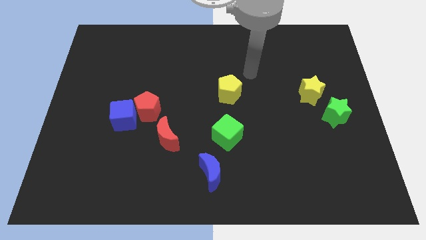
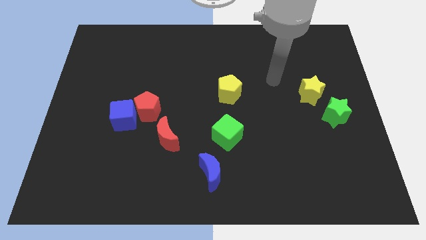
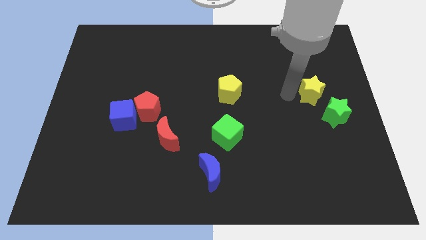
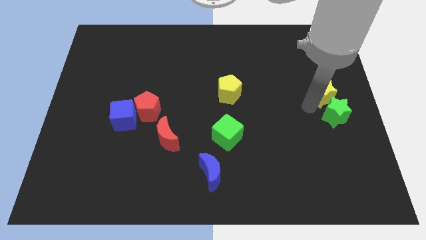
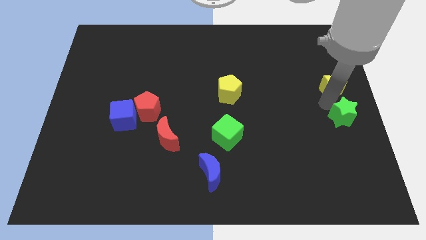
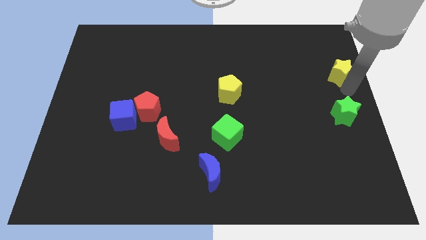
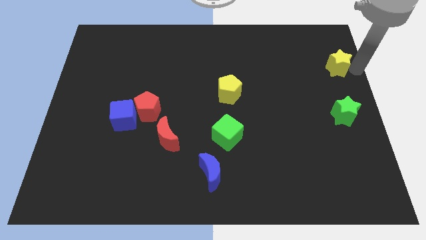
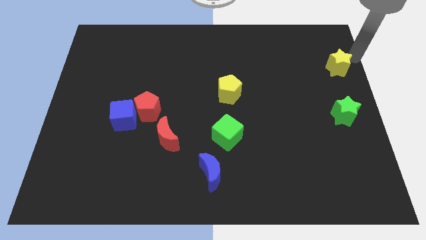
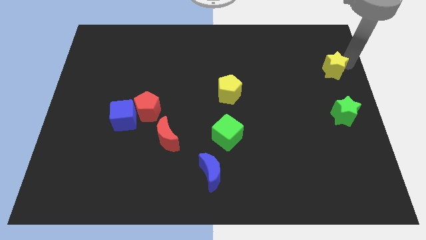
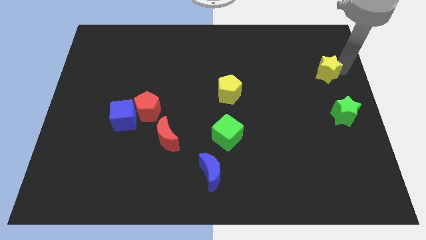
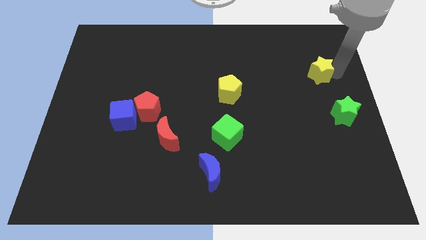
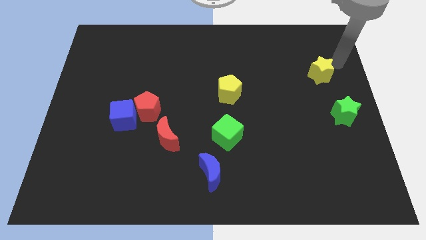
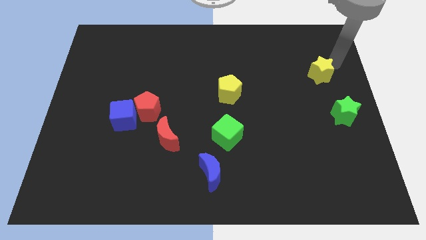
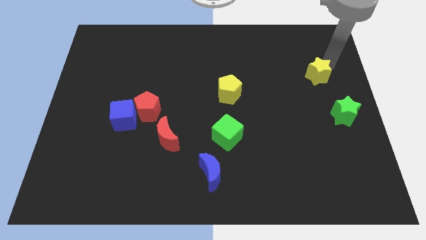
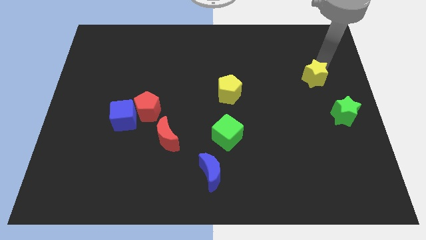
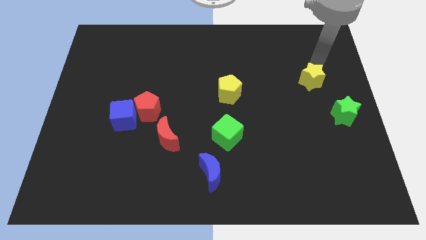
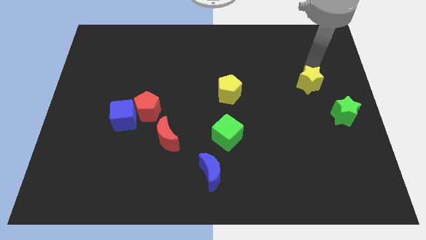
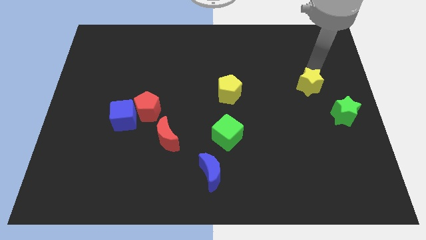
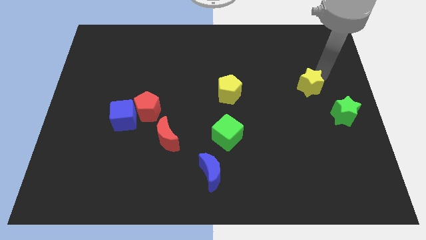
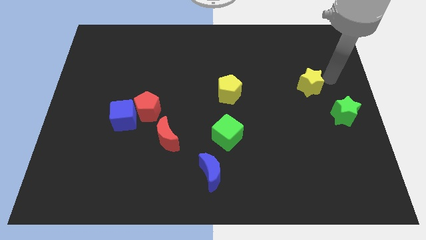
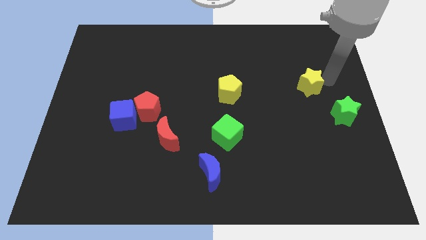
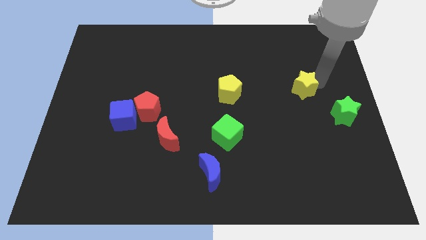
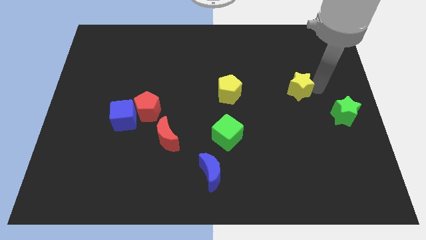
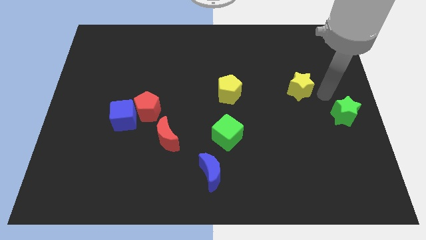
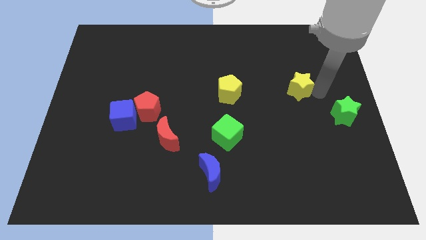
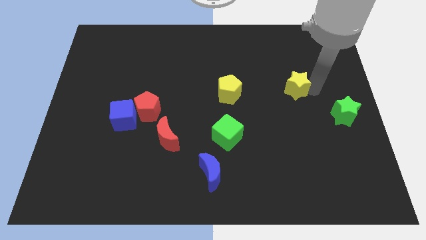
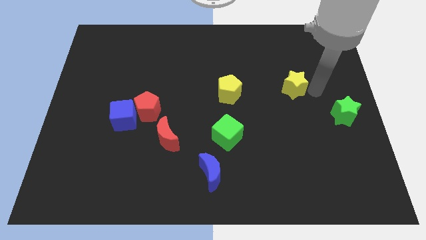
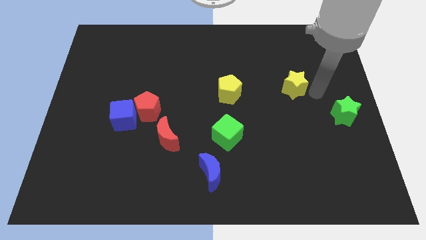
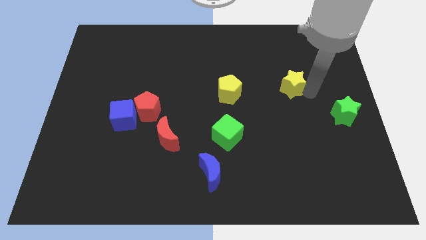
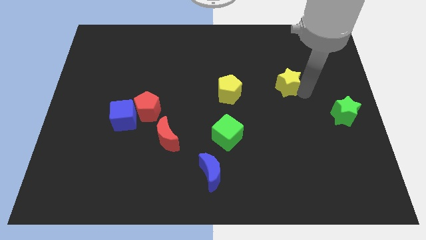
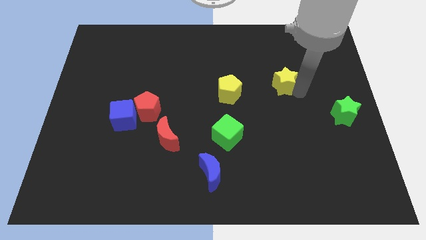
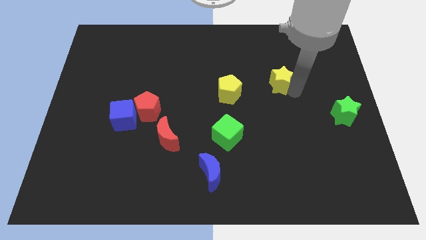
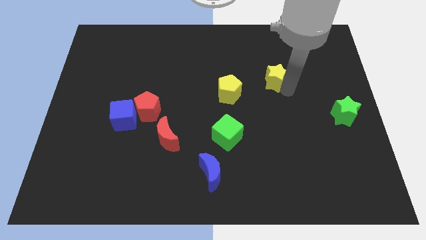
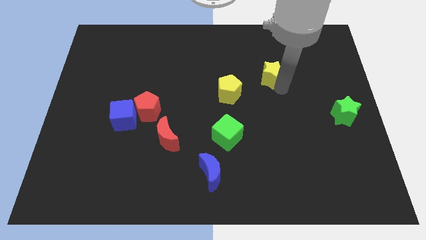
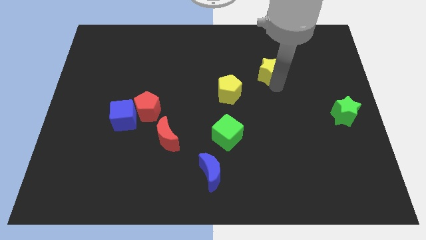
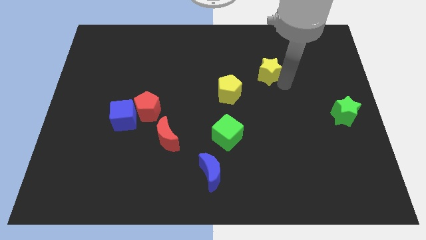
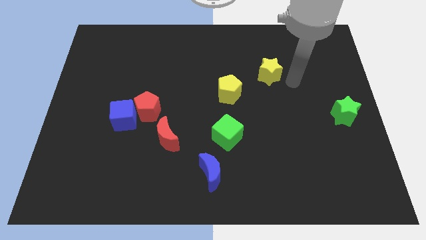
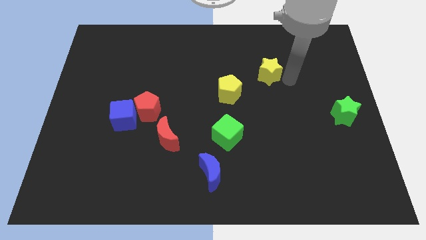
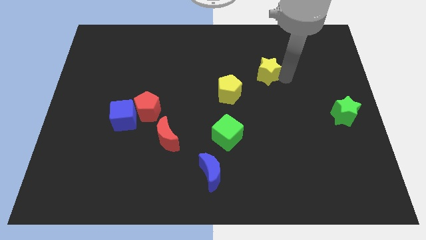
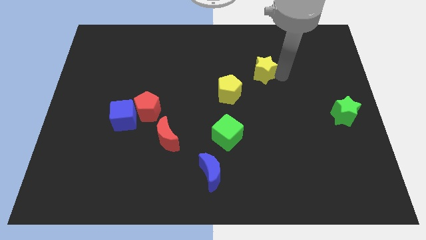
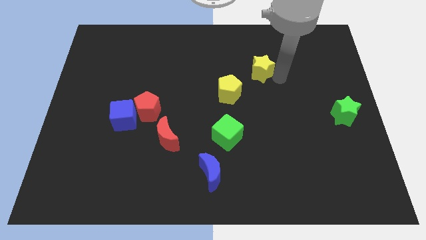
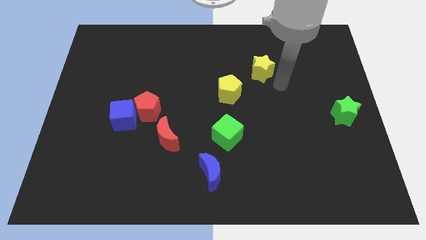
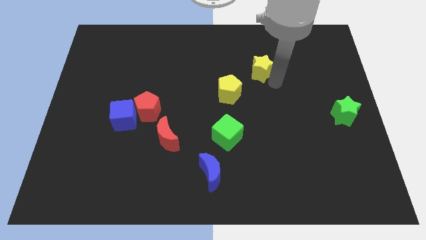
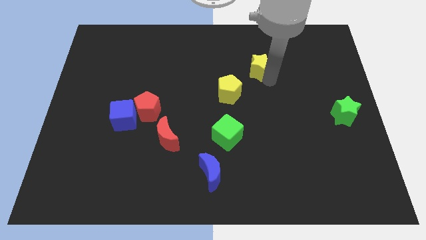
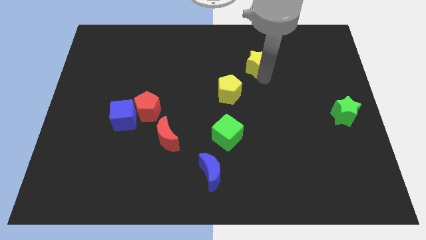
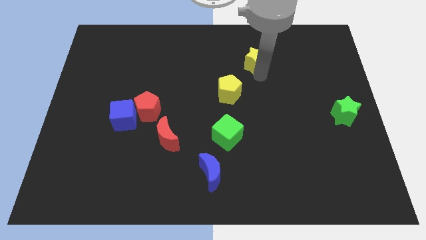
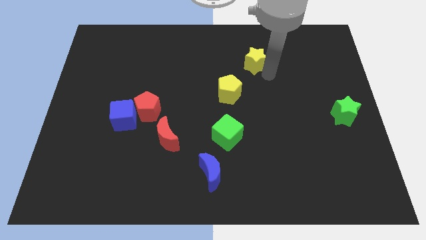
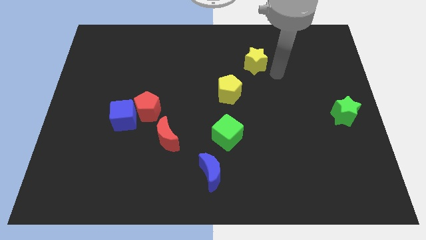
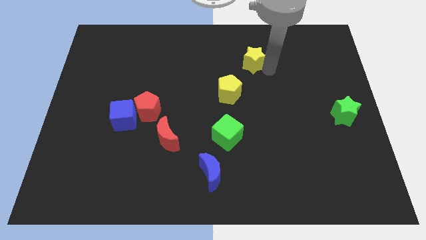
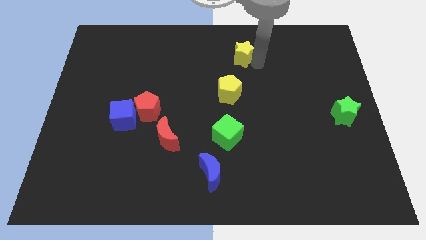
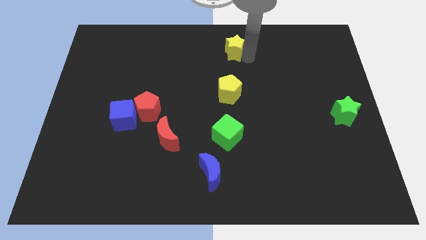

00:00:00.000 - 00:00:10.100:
push the yellow star to the top

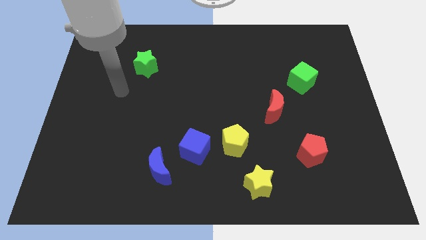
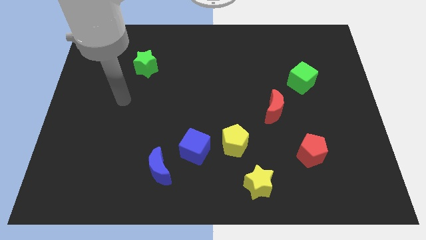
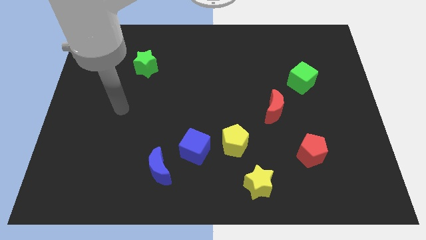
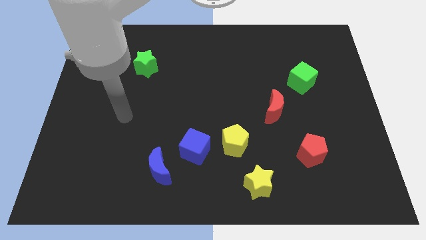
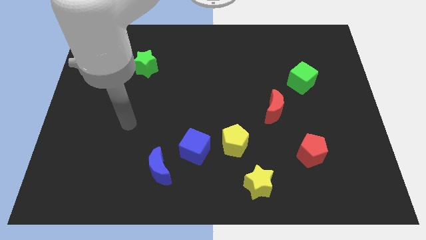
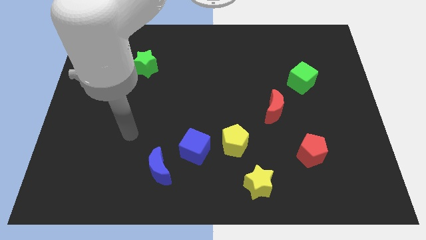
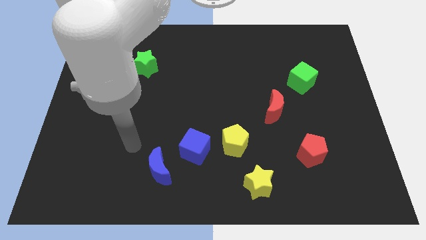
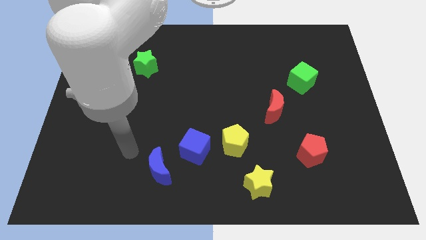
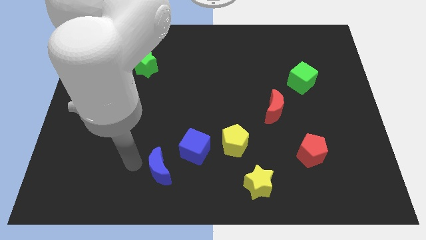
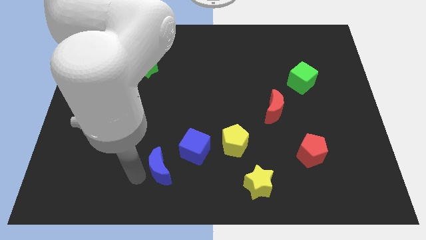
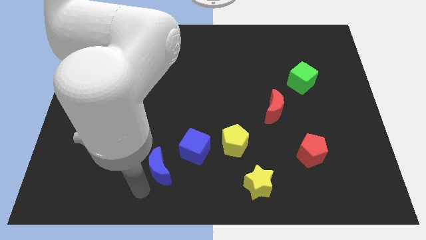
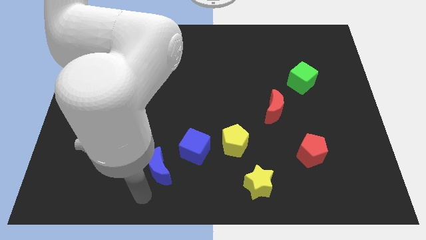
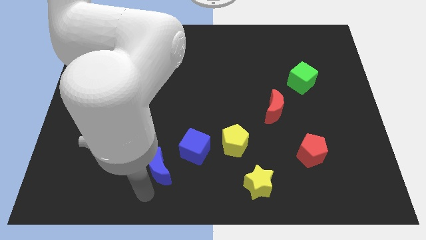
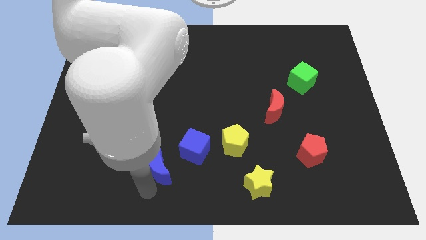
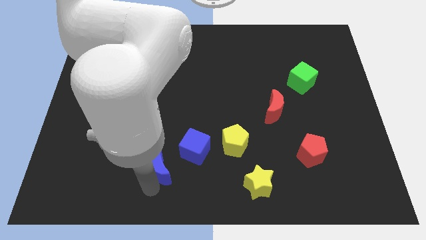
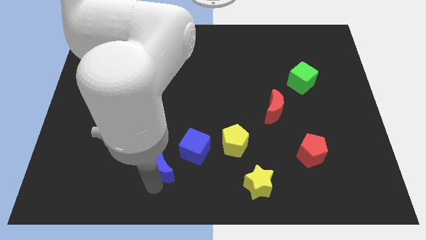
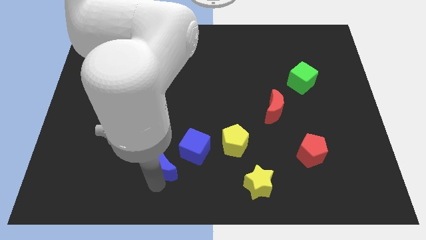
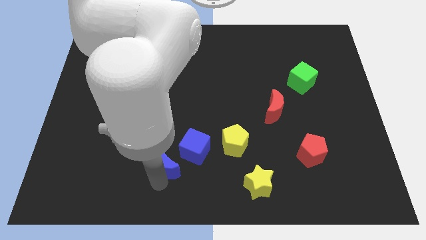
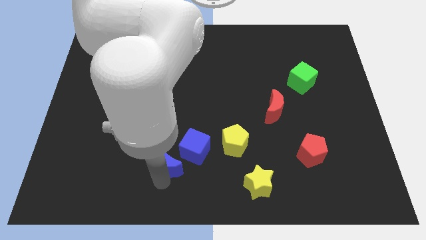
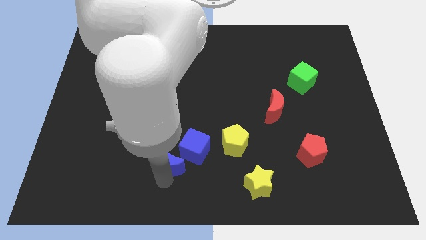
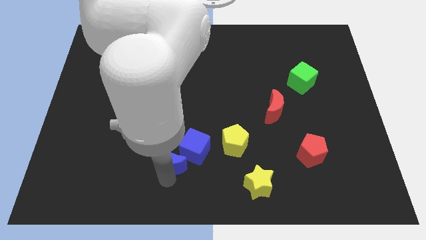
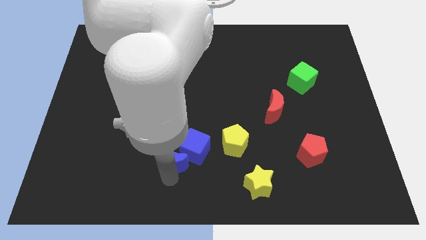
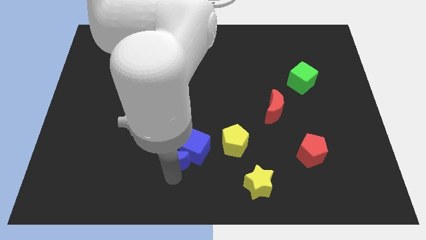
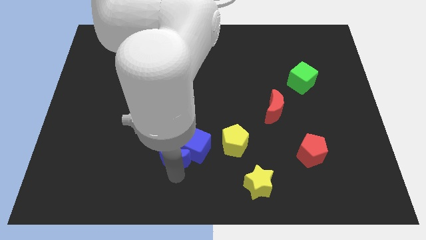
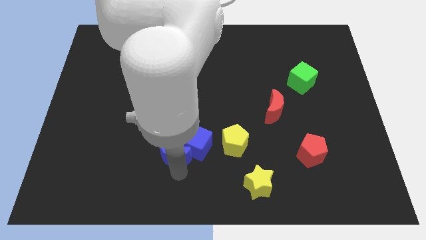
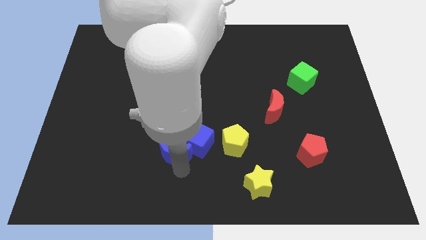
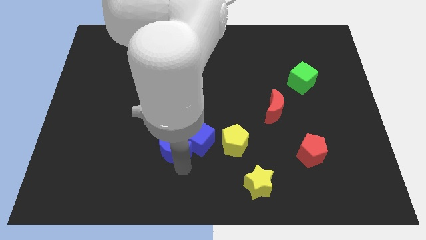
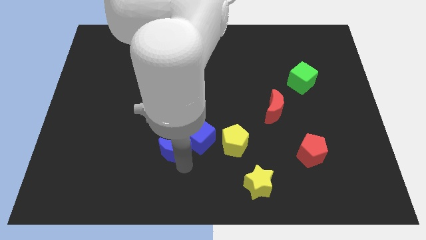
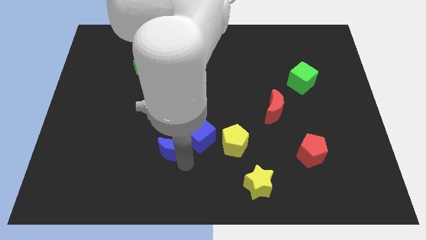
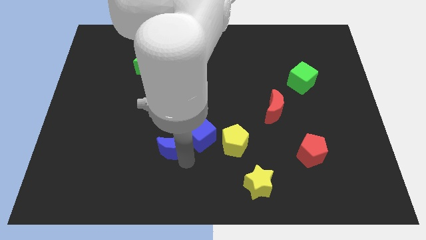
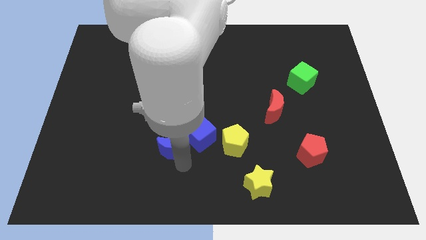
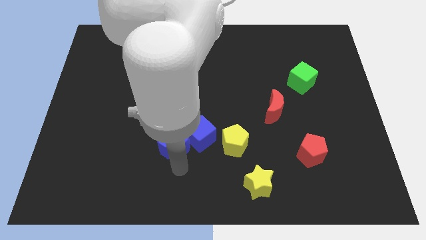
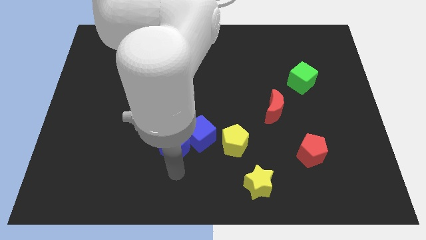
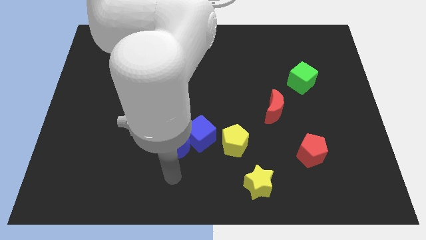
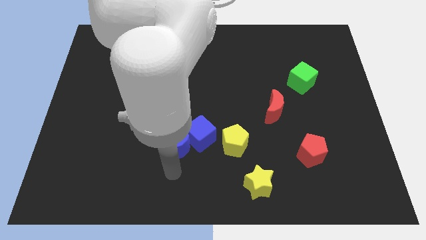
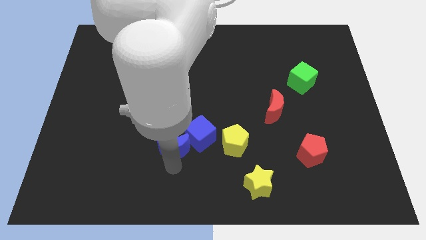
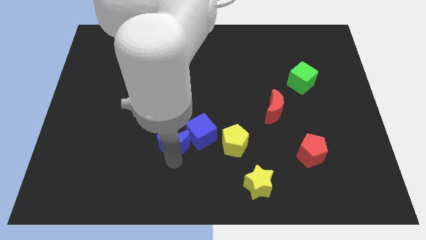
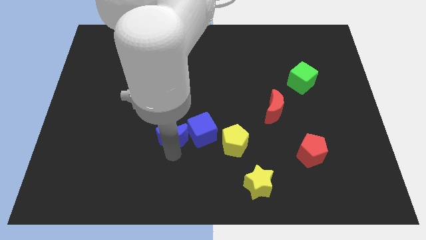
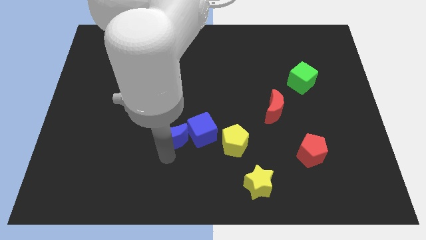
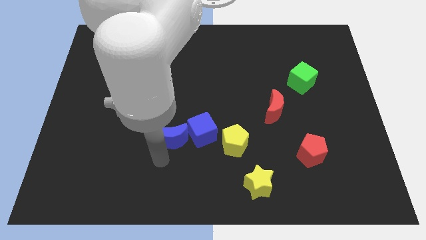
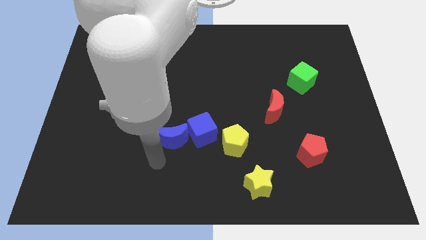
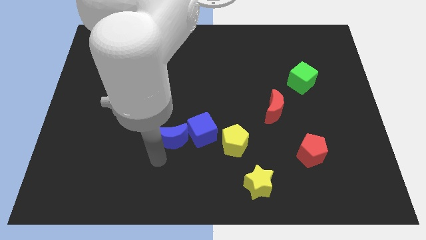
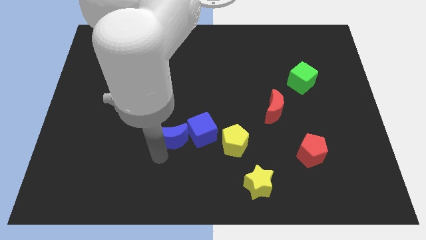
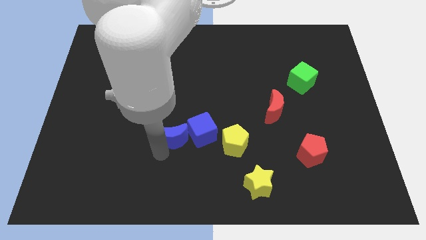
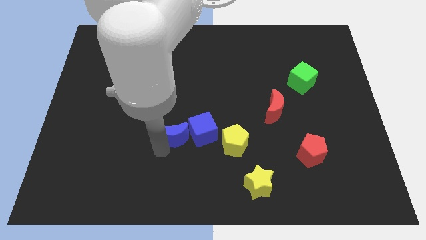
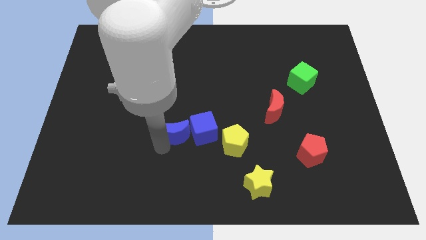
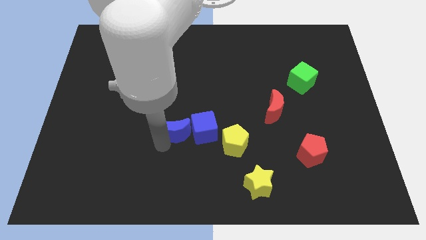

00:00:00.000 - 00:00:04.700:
slide the blue moon to the middle
